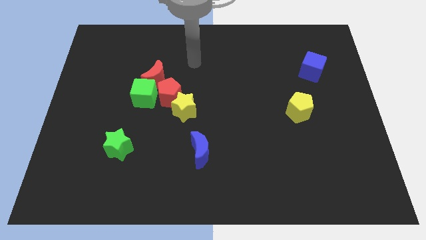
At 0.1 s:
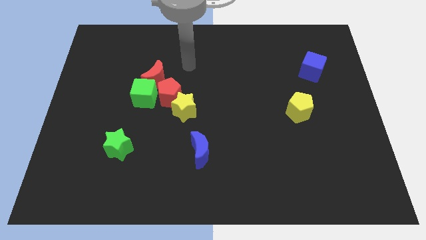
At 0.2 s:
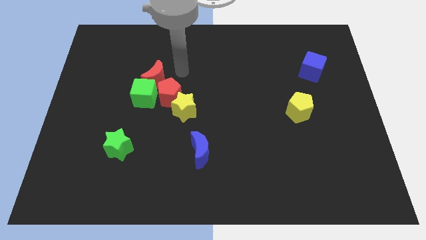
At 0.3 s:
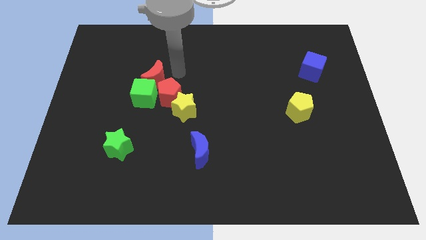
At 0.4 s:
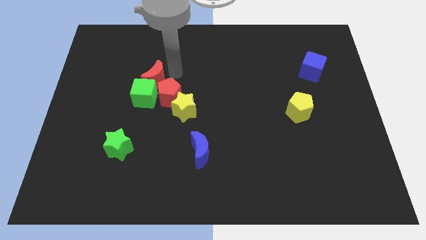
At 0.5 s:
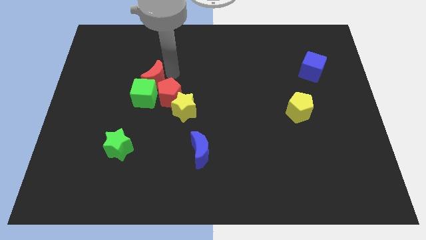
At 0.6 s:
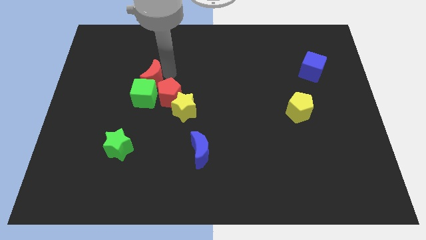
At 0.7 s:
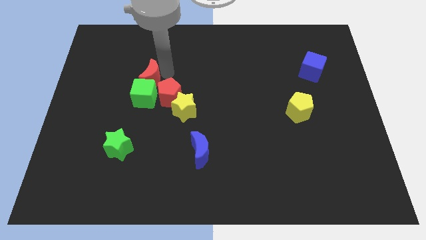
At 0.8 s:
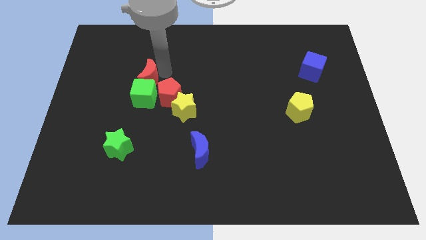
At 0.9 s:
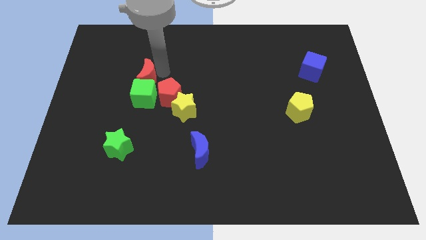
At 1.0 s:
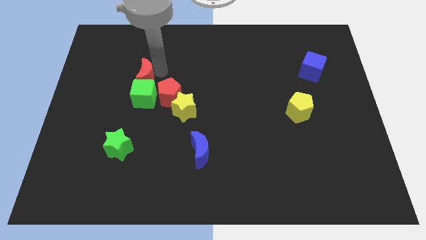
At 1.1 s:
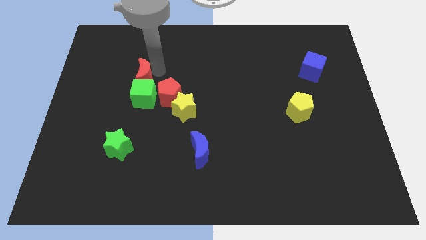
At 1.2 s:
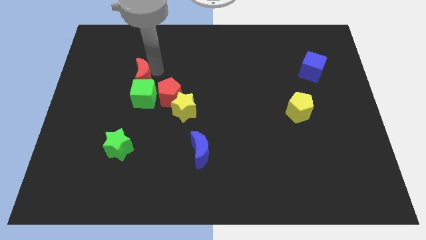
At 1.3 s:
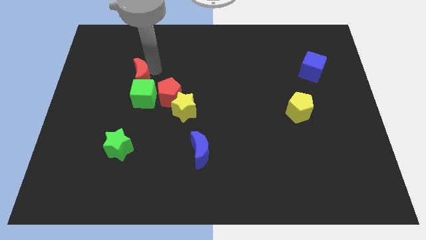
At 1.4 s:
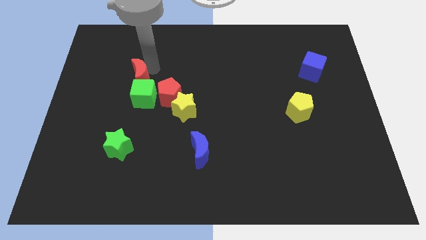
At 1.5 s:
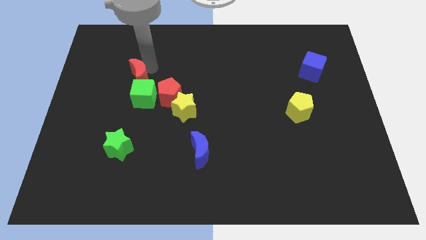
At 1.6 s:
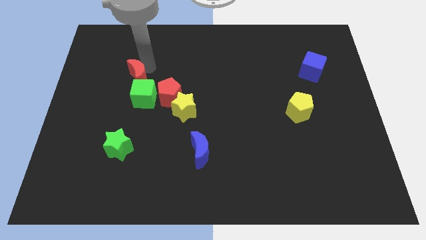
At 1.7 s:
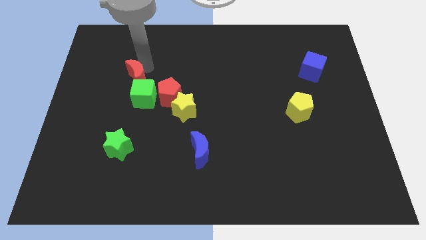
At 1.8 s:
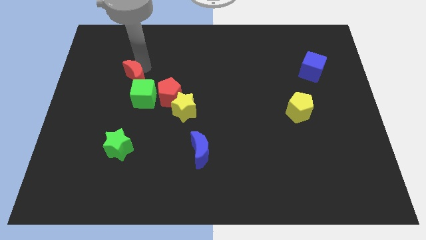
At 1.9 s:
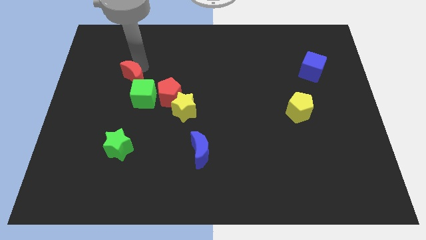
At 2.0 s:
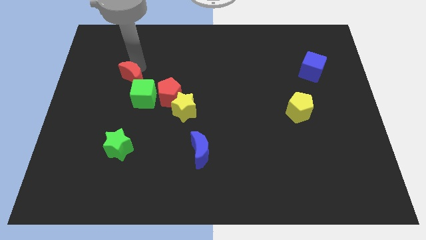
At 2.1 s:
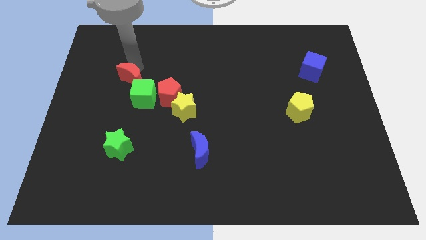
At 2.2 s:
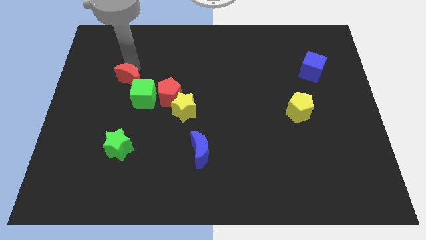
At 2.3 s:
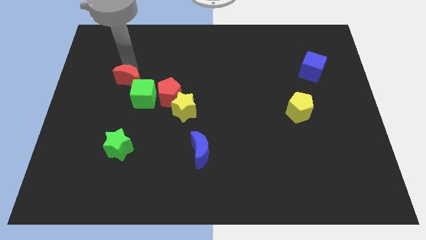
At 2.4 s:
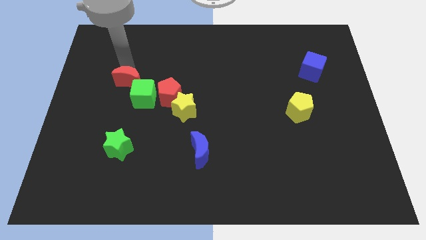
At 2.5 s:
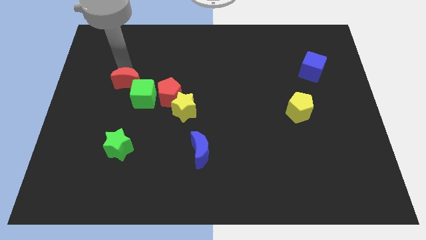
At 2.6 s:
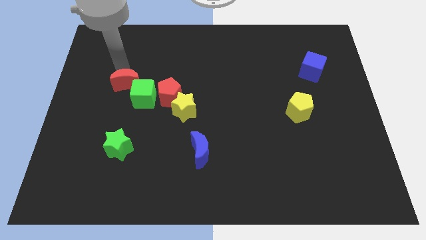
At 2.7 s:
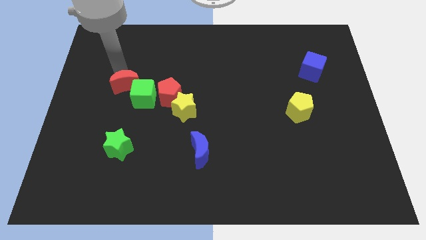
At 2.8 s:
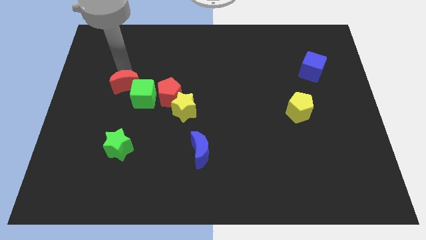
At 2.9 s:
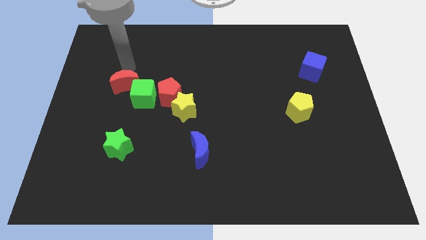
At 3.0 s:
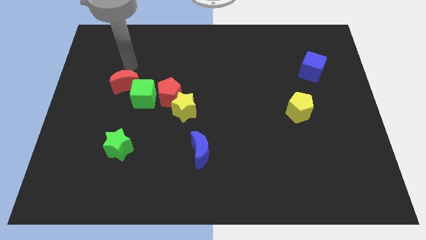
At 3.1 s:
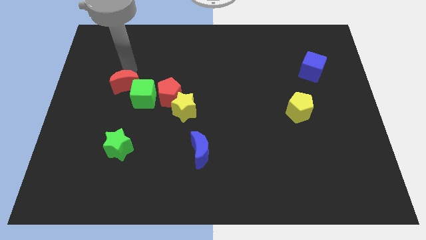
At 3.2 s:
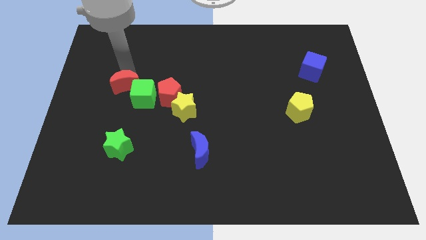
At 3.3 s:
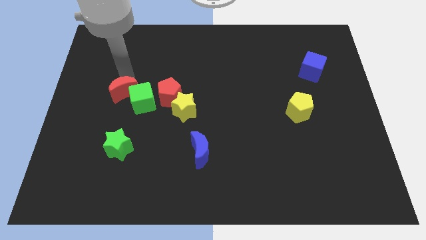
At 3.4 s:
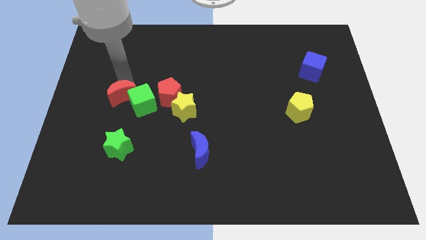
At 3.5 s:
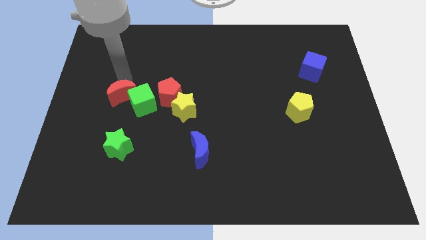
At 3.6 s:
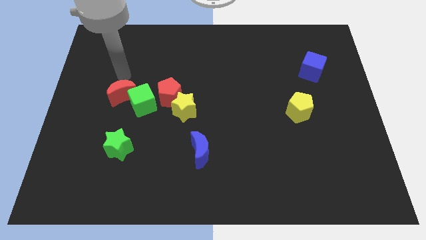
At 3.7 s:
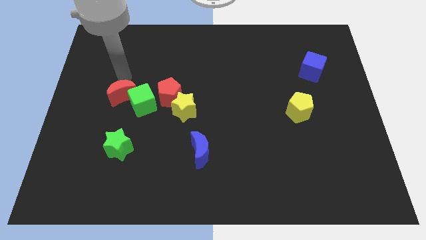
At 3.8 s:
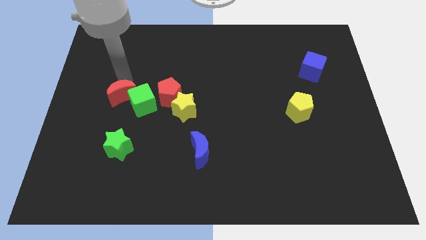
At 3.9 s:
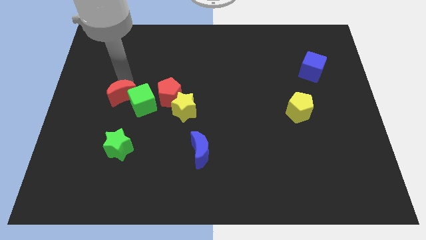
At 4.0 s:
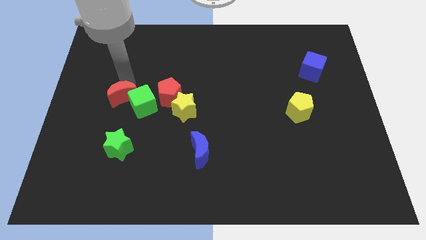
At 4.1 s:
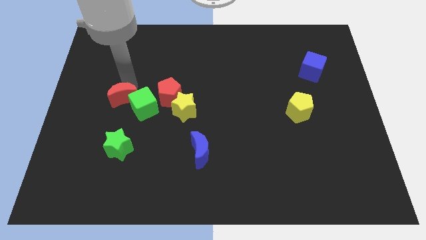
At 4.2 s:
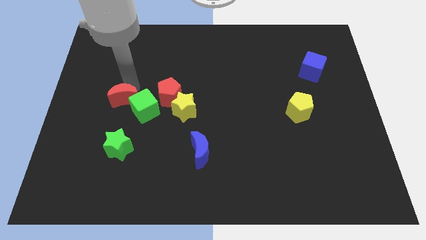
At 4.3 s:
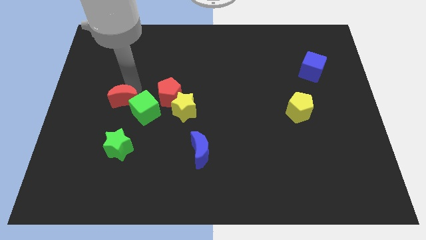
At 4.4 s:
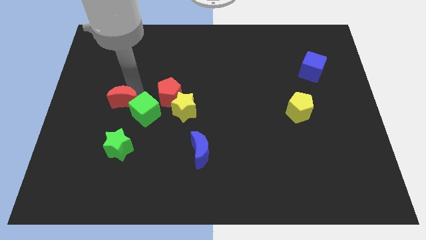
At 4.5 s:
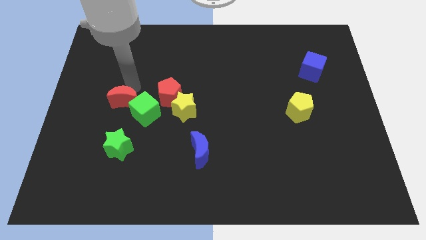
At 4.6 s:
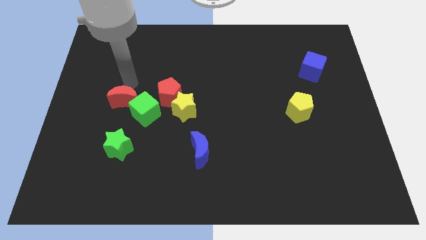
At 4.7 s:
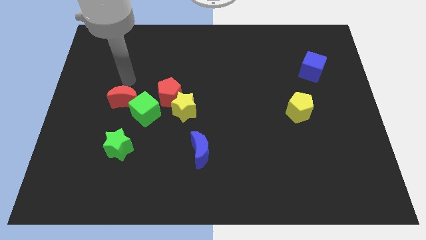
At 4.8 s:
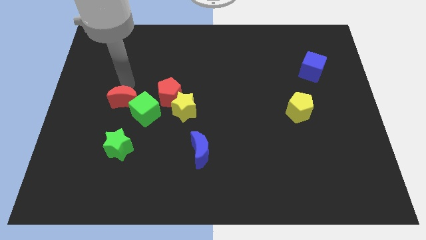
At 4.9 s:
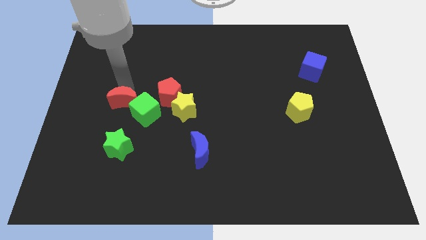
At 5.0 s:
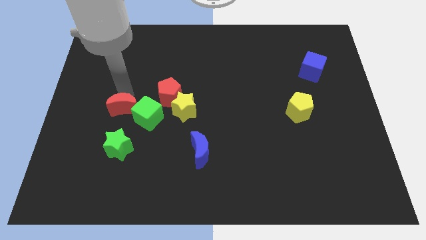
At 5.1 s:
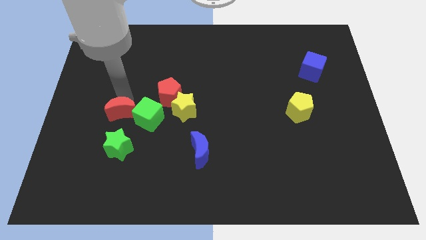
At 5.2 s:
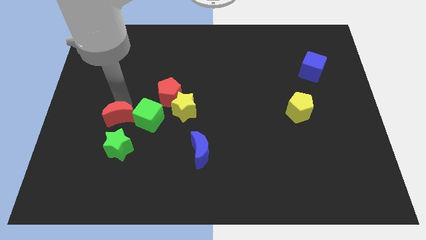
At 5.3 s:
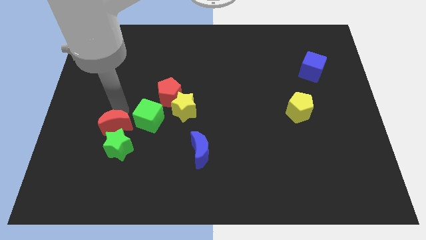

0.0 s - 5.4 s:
slide the red moon to the green star

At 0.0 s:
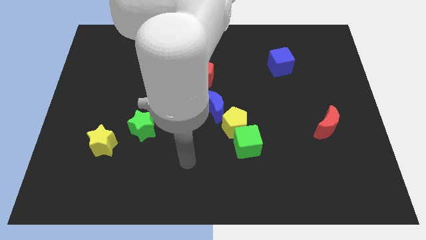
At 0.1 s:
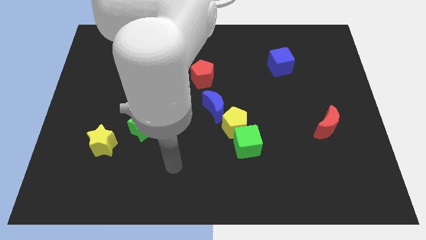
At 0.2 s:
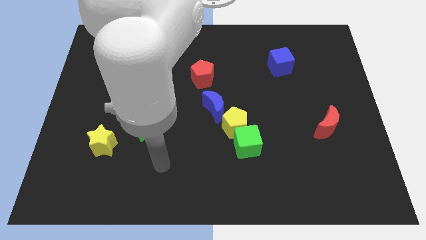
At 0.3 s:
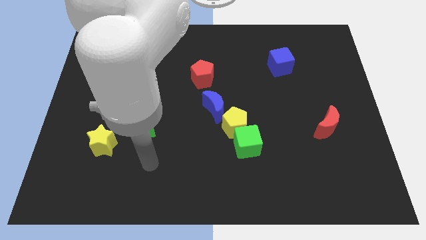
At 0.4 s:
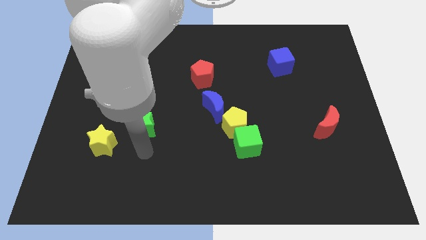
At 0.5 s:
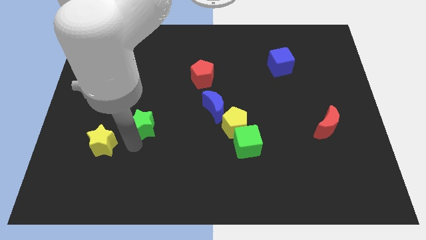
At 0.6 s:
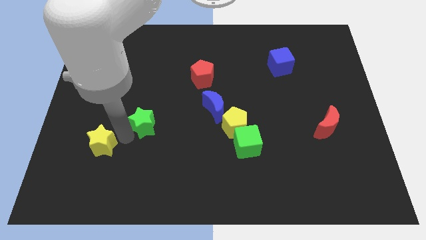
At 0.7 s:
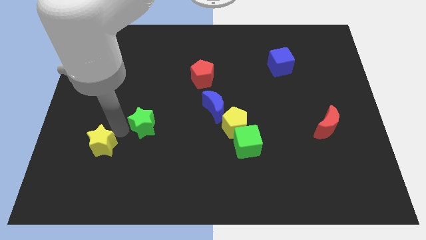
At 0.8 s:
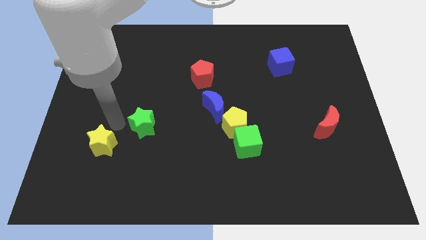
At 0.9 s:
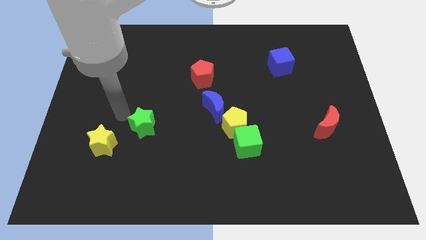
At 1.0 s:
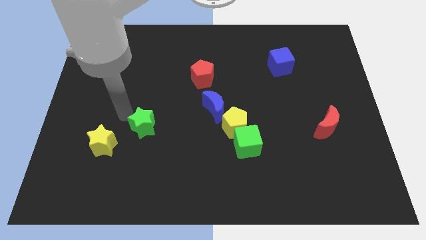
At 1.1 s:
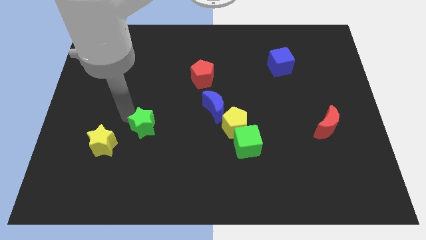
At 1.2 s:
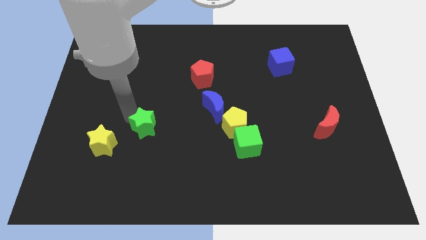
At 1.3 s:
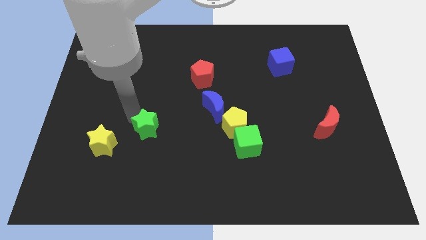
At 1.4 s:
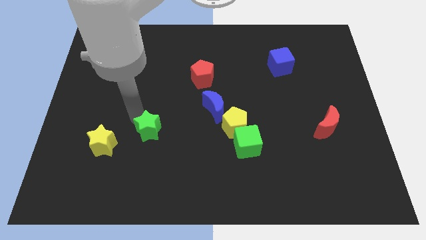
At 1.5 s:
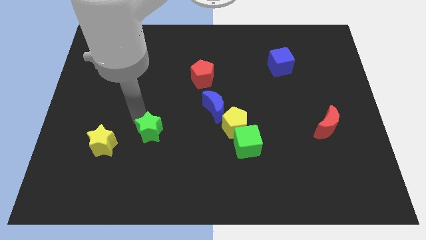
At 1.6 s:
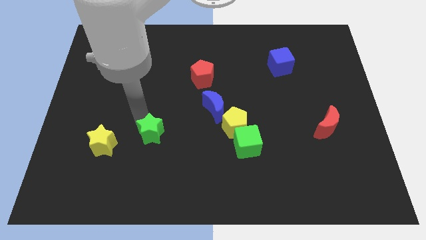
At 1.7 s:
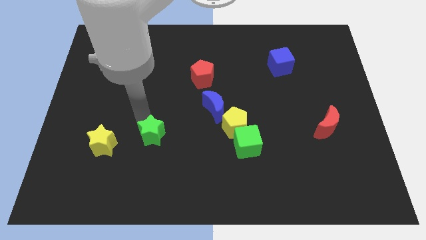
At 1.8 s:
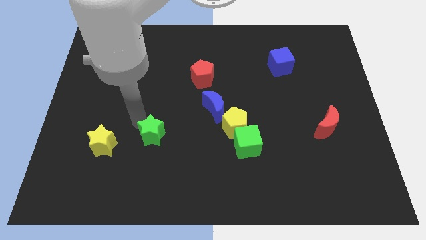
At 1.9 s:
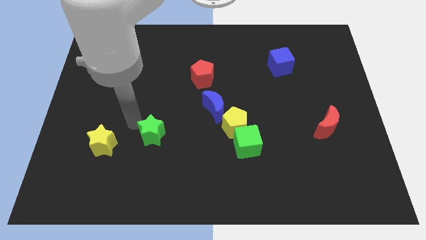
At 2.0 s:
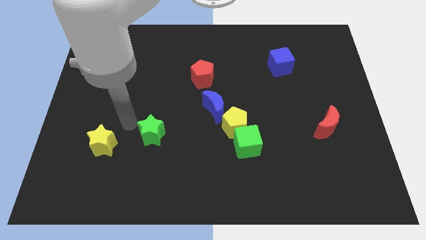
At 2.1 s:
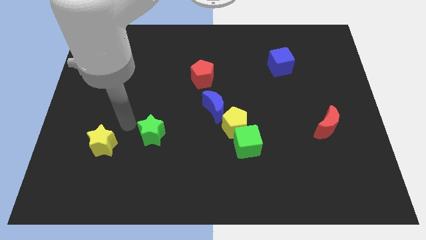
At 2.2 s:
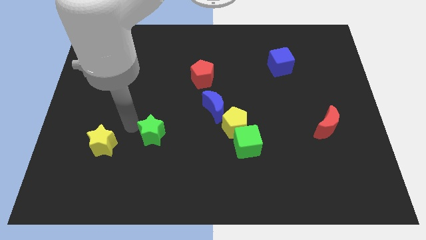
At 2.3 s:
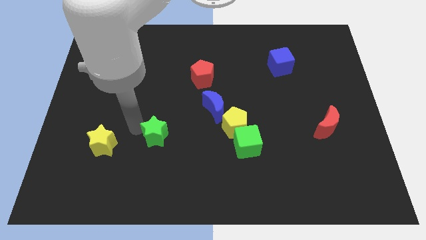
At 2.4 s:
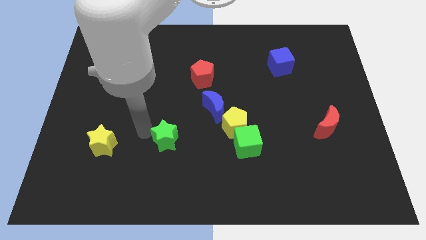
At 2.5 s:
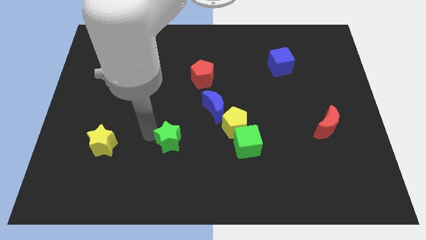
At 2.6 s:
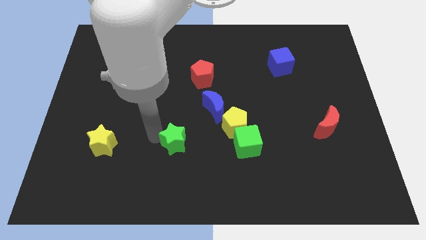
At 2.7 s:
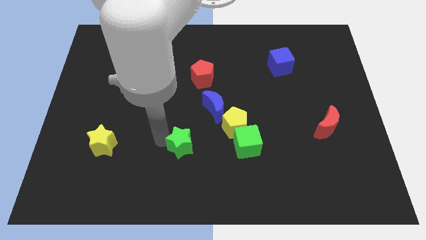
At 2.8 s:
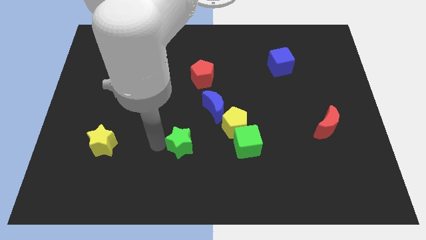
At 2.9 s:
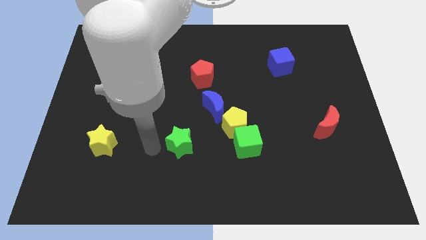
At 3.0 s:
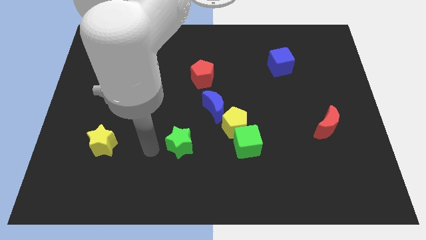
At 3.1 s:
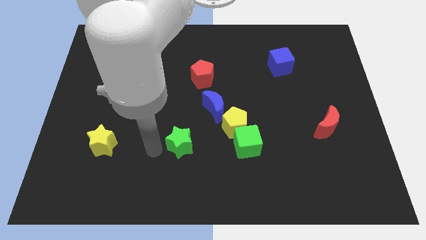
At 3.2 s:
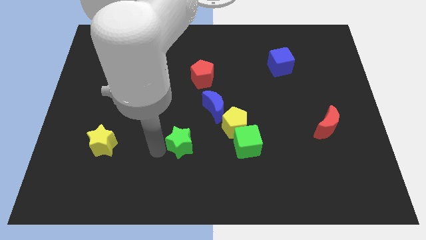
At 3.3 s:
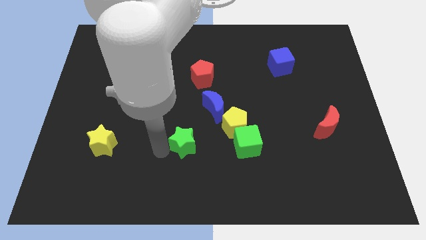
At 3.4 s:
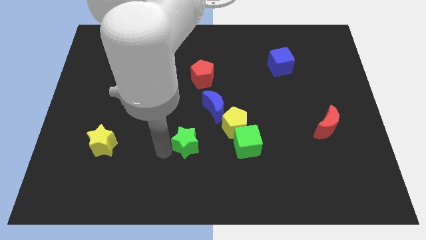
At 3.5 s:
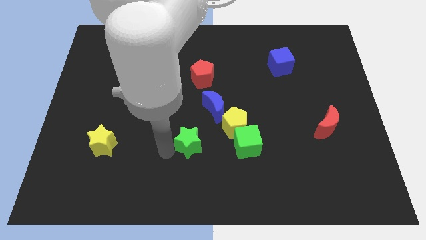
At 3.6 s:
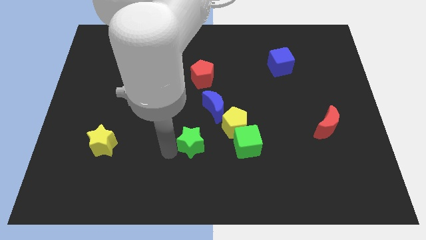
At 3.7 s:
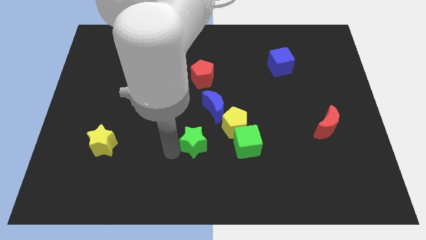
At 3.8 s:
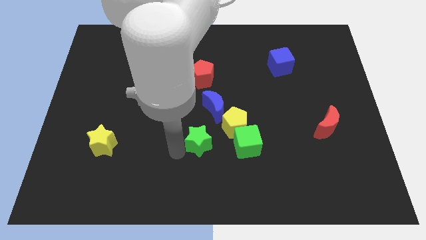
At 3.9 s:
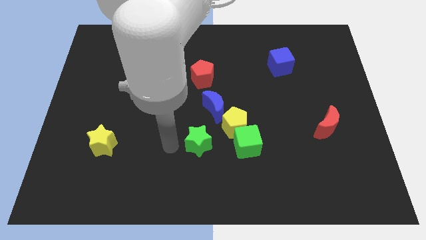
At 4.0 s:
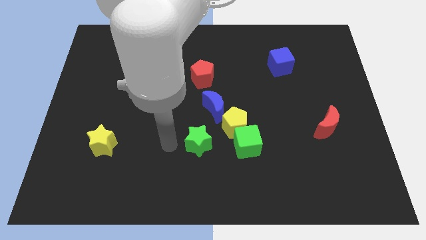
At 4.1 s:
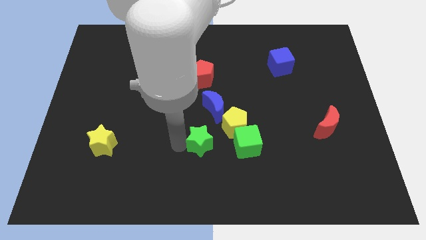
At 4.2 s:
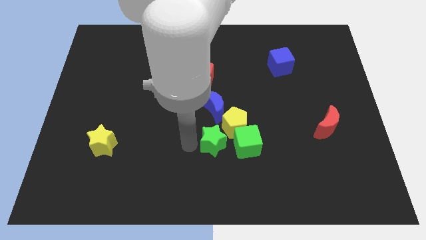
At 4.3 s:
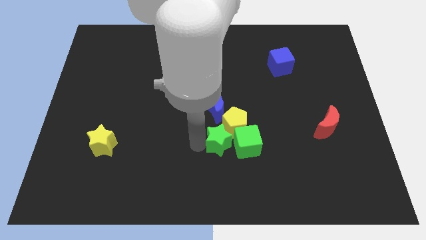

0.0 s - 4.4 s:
slide the green star close to the green cube
